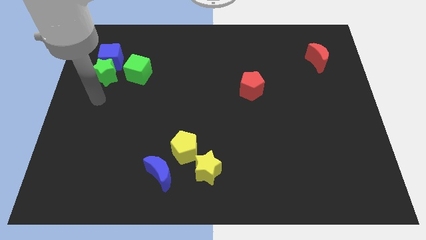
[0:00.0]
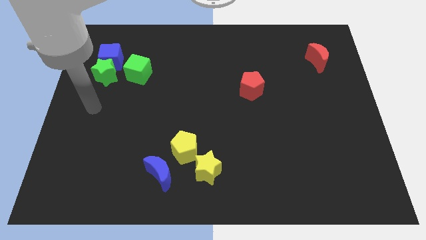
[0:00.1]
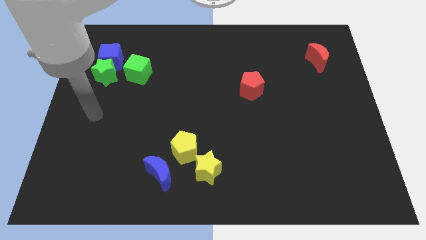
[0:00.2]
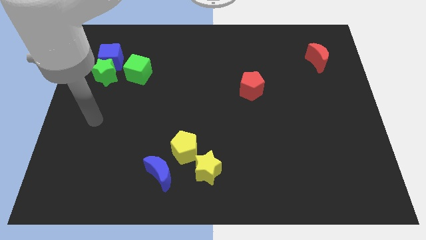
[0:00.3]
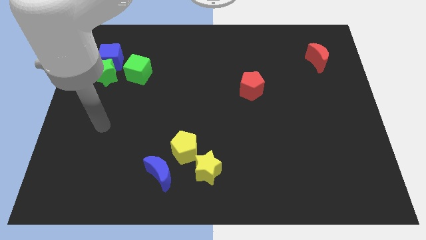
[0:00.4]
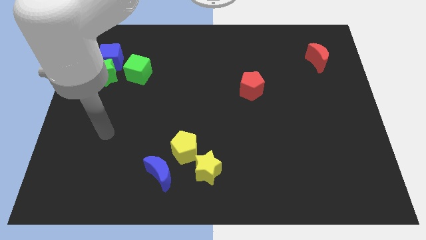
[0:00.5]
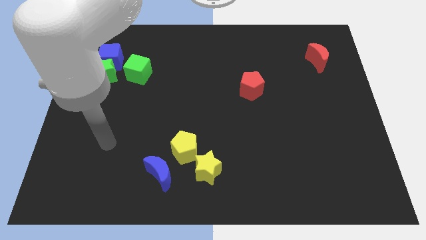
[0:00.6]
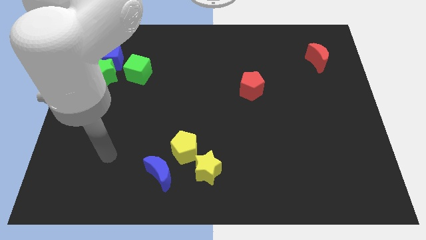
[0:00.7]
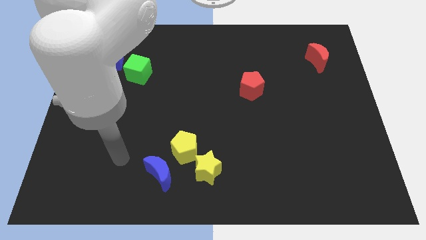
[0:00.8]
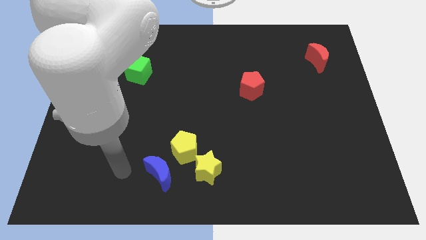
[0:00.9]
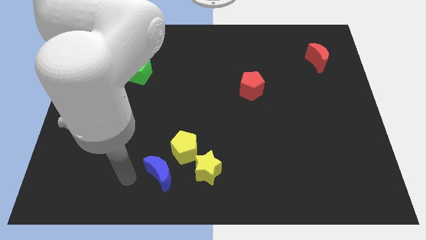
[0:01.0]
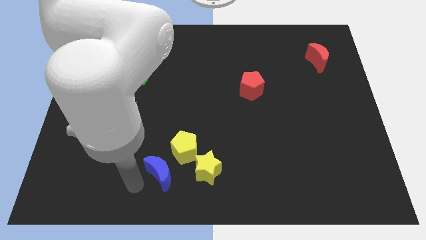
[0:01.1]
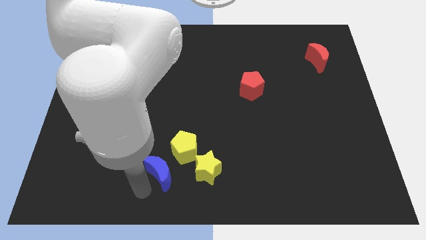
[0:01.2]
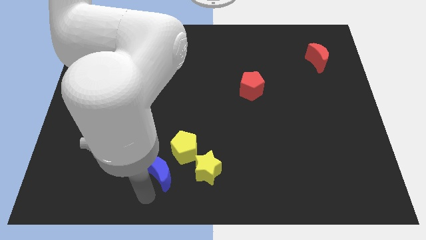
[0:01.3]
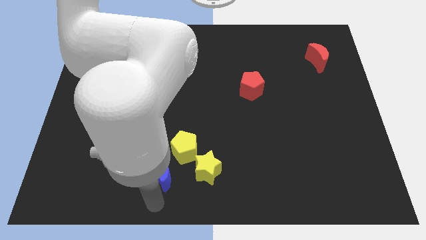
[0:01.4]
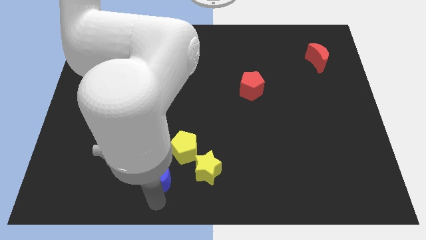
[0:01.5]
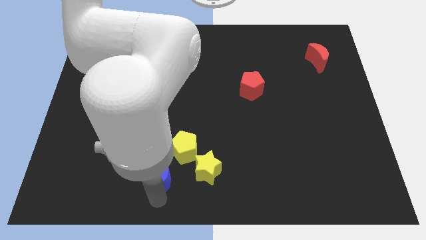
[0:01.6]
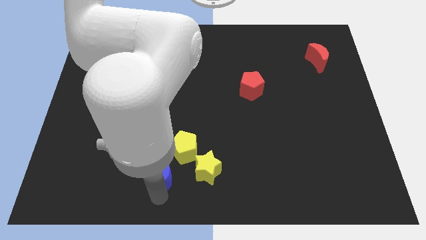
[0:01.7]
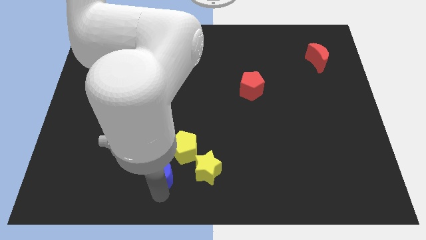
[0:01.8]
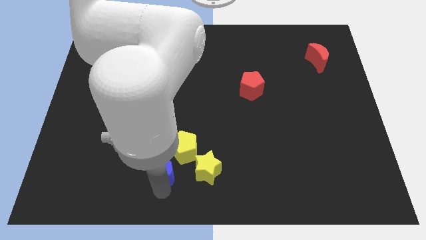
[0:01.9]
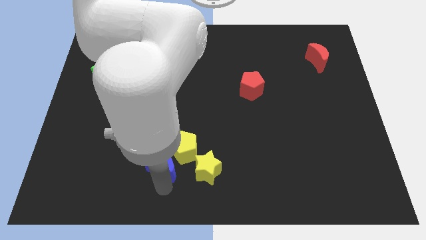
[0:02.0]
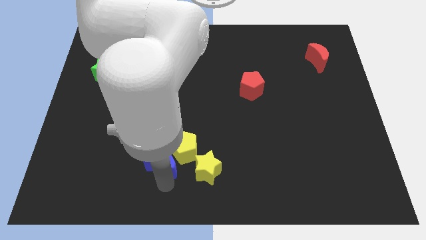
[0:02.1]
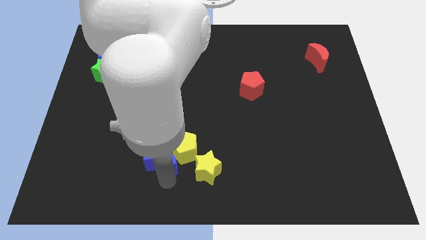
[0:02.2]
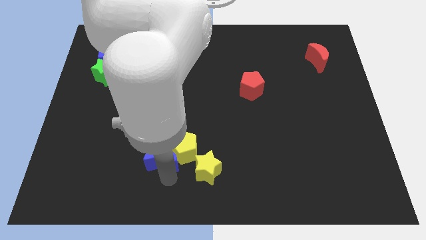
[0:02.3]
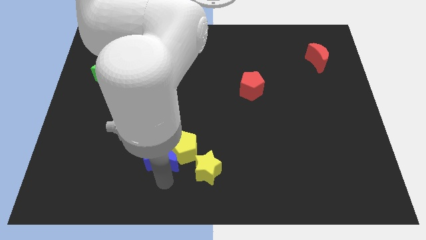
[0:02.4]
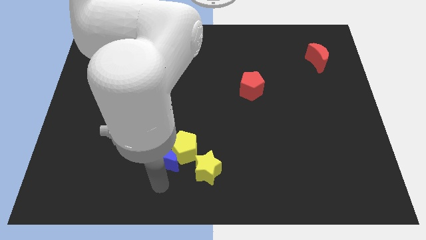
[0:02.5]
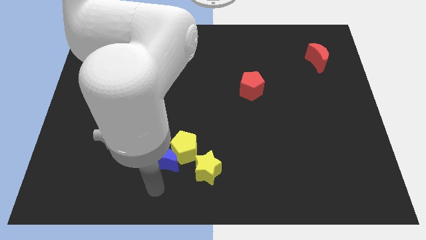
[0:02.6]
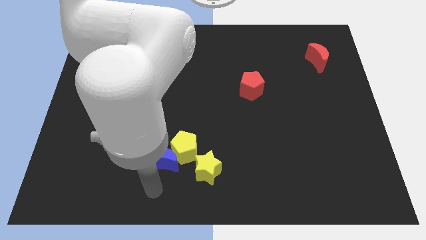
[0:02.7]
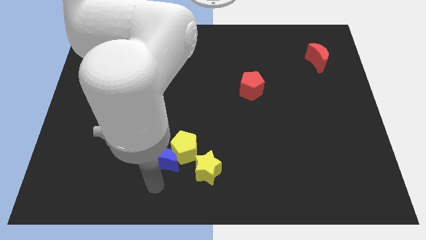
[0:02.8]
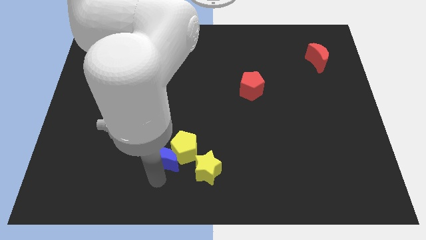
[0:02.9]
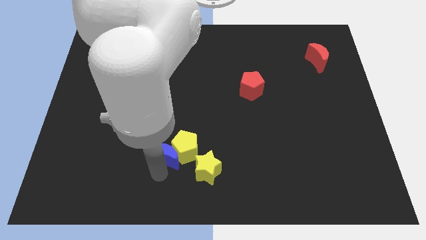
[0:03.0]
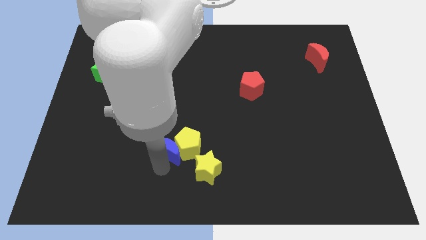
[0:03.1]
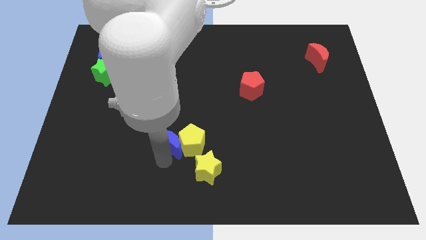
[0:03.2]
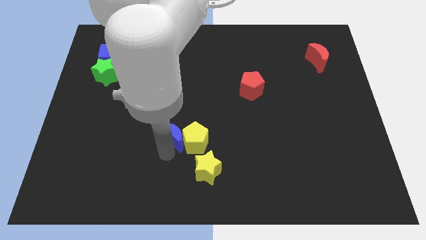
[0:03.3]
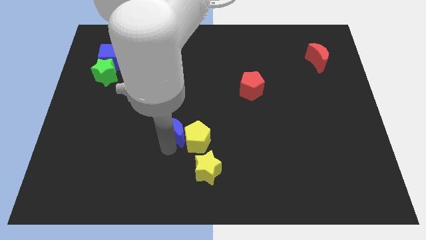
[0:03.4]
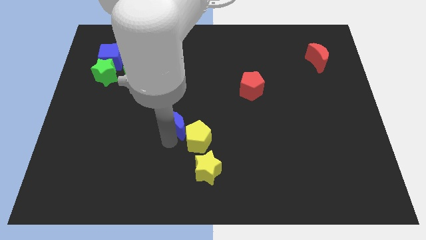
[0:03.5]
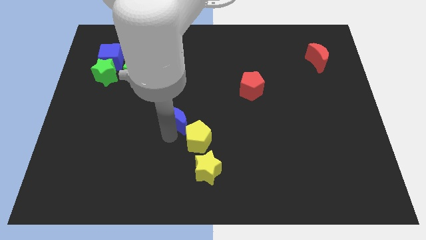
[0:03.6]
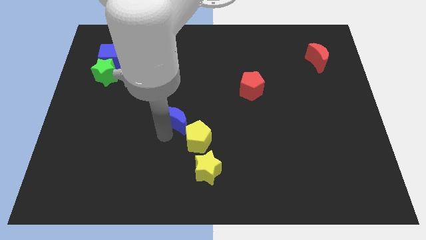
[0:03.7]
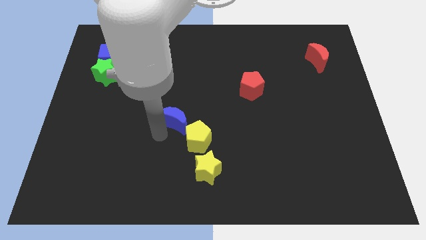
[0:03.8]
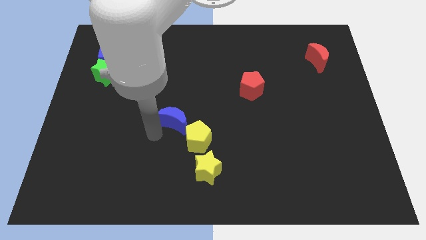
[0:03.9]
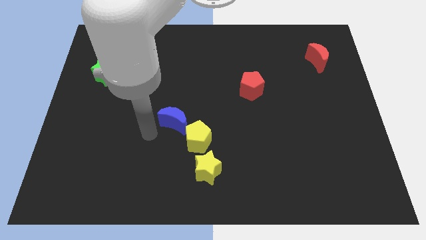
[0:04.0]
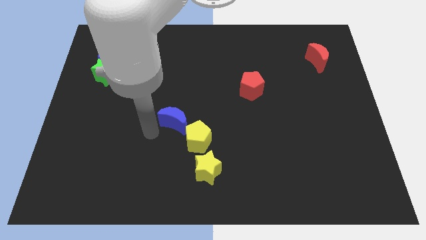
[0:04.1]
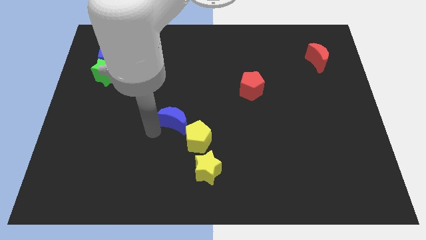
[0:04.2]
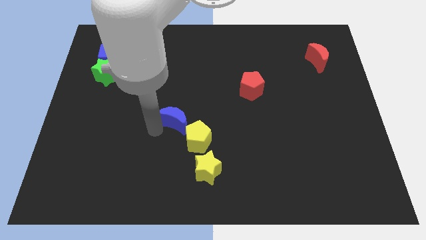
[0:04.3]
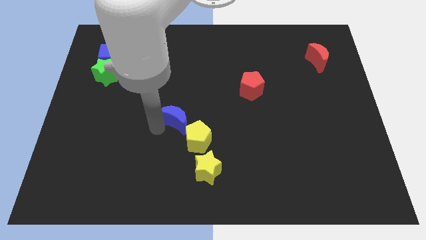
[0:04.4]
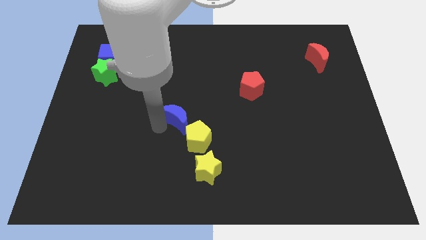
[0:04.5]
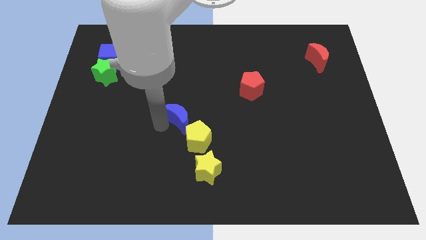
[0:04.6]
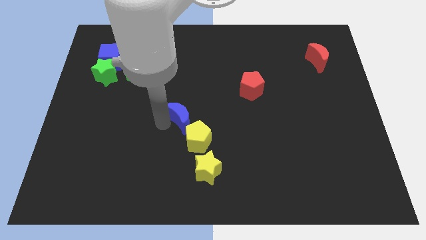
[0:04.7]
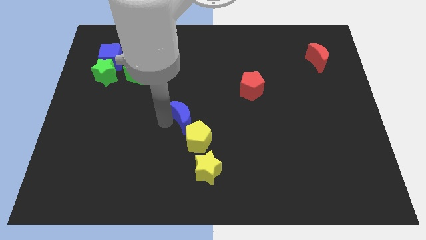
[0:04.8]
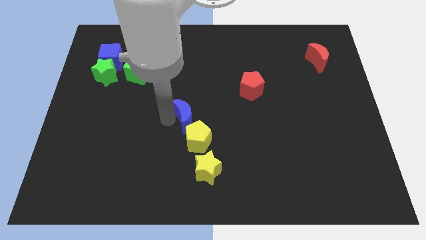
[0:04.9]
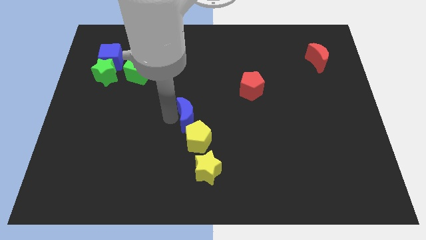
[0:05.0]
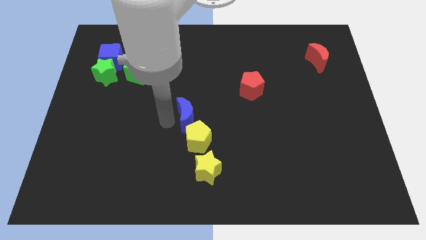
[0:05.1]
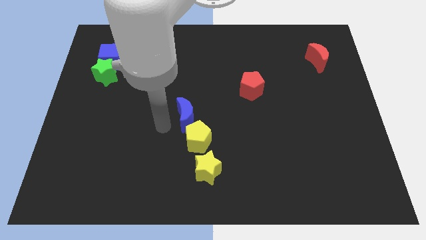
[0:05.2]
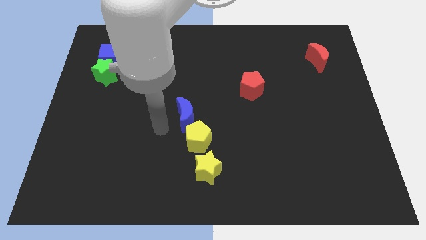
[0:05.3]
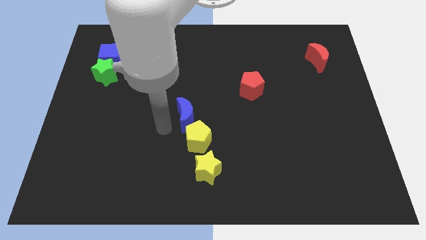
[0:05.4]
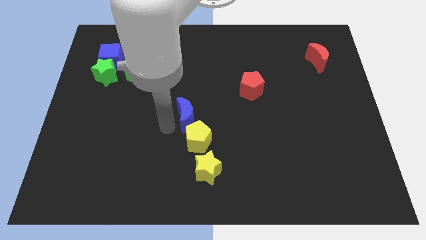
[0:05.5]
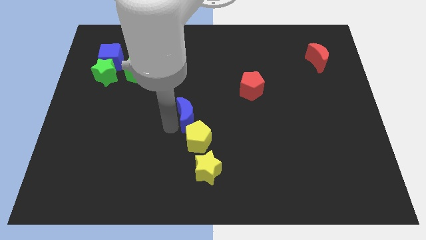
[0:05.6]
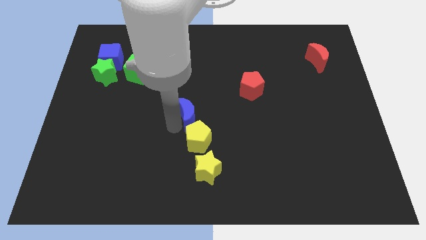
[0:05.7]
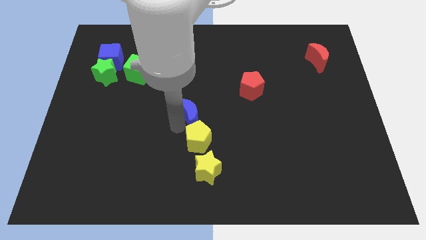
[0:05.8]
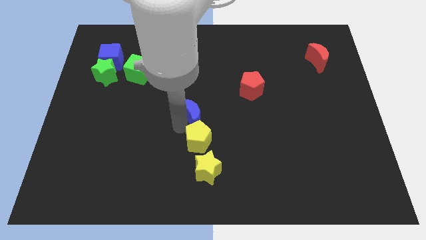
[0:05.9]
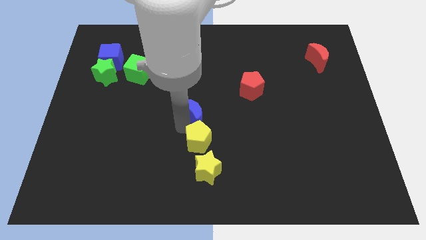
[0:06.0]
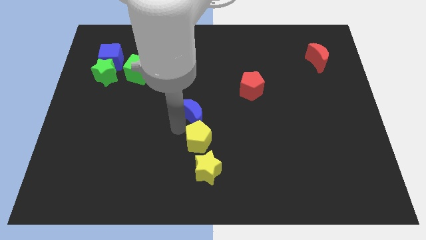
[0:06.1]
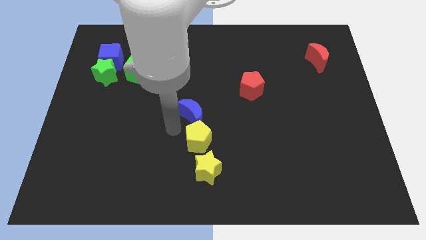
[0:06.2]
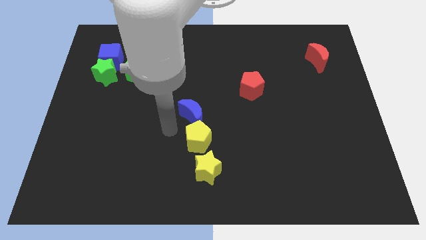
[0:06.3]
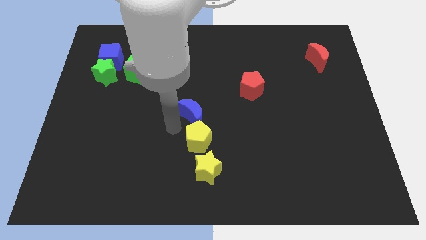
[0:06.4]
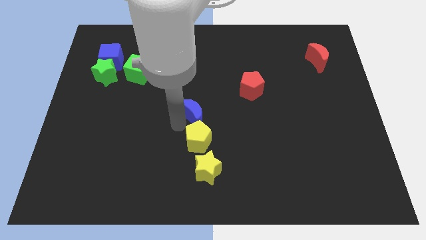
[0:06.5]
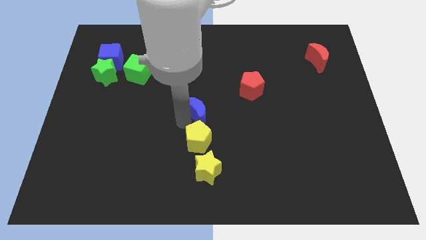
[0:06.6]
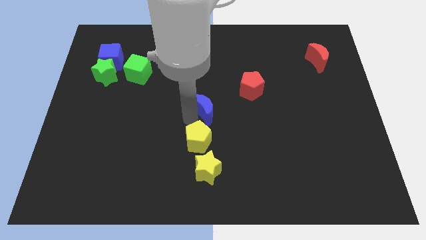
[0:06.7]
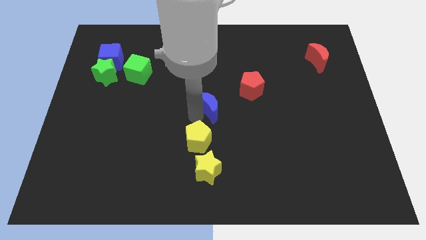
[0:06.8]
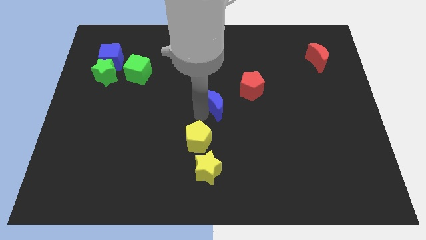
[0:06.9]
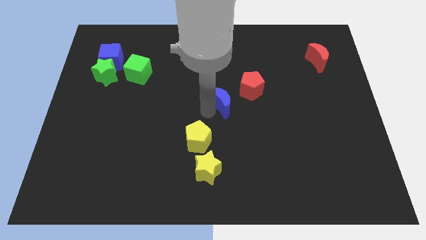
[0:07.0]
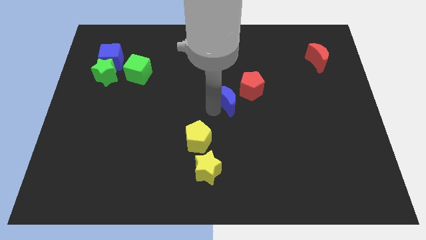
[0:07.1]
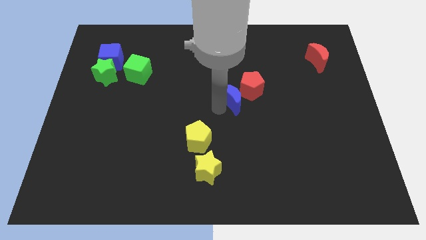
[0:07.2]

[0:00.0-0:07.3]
push the blue moon to the red pentagon

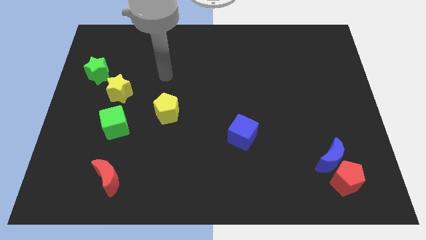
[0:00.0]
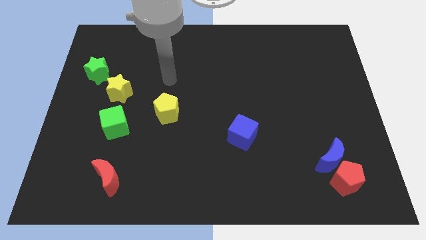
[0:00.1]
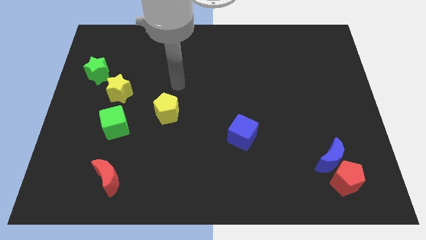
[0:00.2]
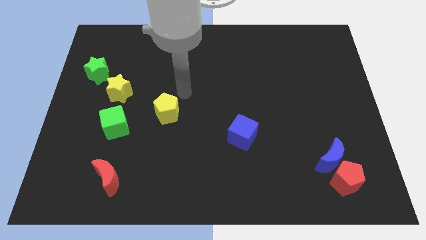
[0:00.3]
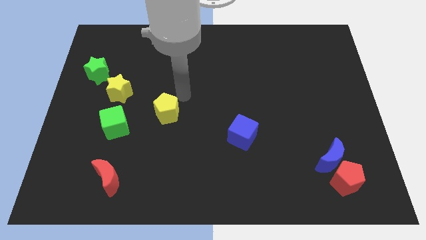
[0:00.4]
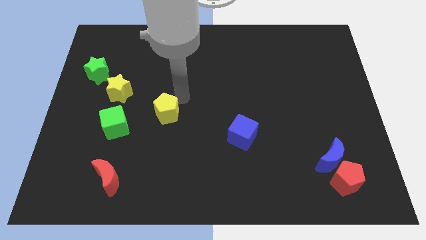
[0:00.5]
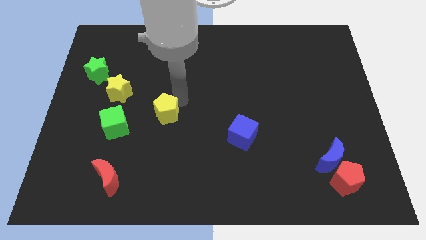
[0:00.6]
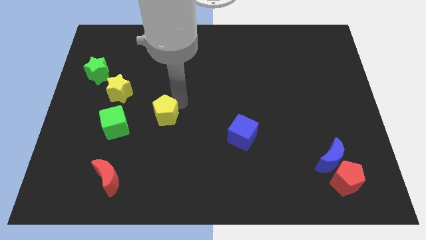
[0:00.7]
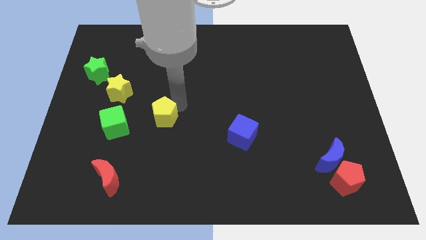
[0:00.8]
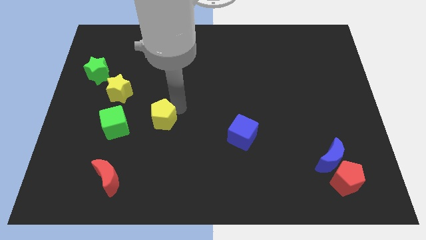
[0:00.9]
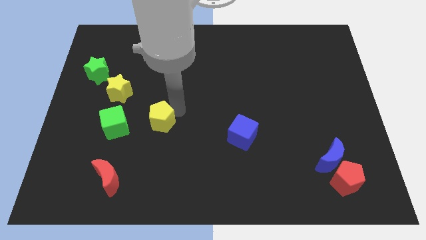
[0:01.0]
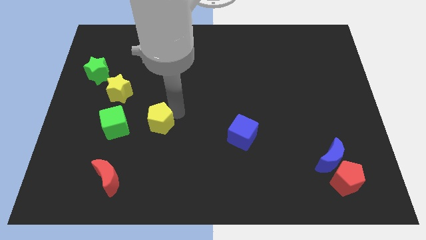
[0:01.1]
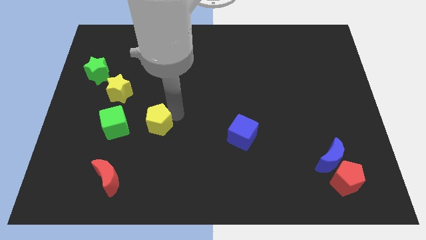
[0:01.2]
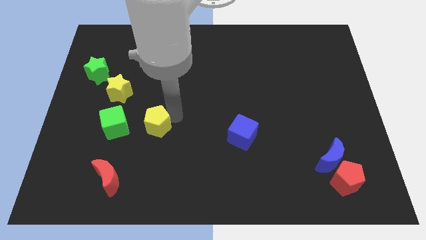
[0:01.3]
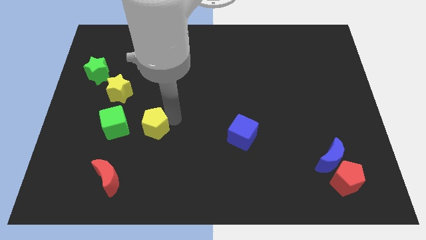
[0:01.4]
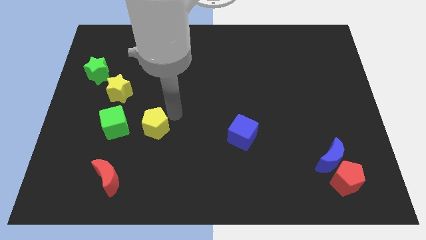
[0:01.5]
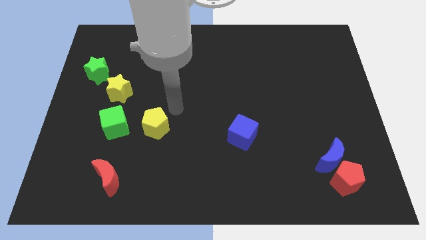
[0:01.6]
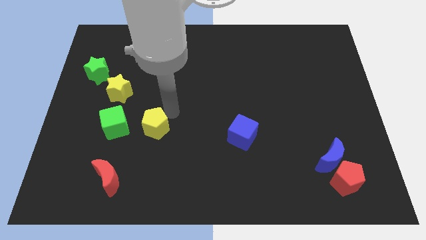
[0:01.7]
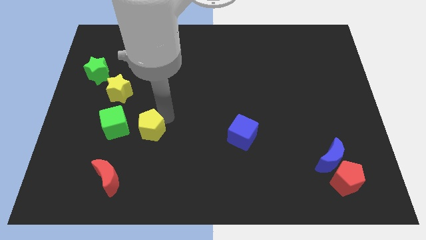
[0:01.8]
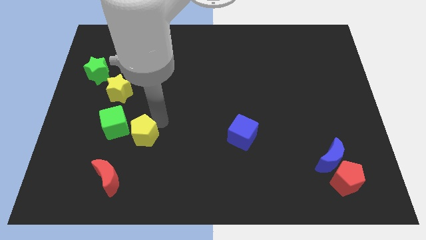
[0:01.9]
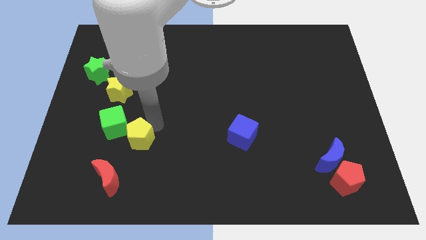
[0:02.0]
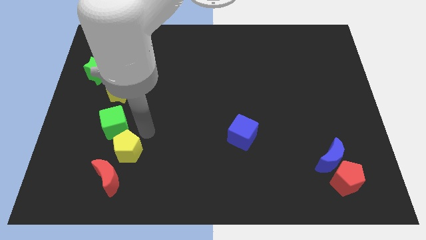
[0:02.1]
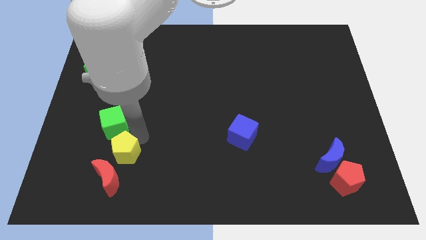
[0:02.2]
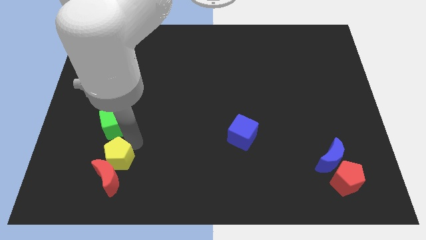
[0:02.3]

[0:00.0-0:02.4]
move the yellow pentagon to the red moon
